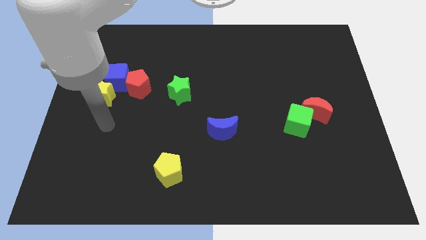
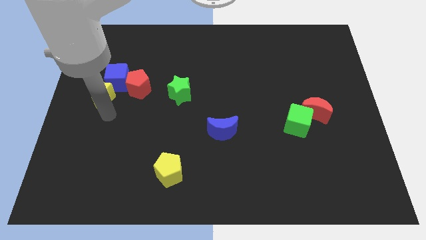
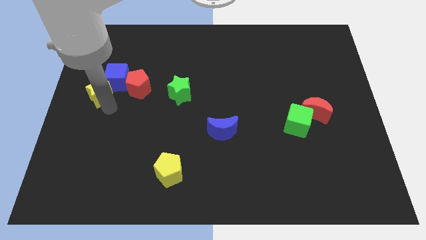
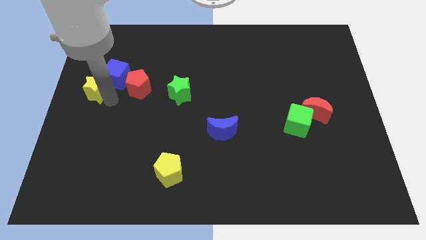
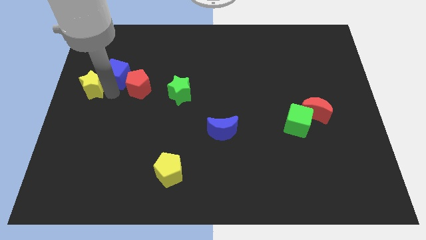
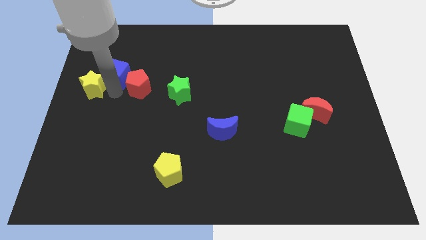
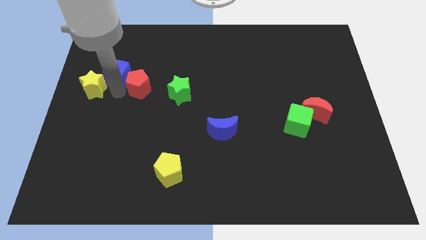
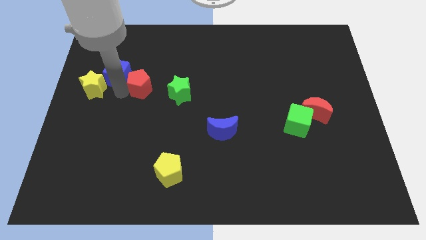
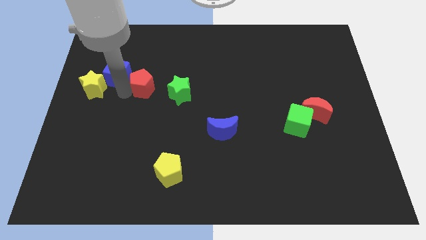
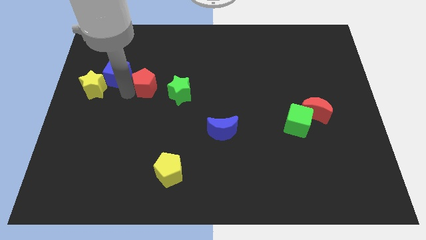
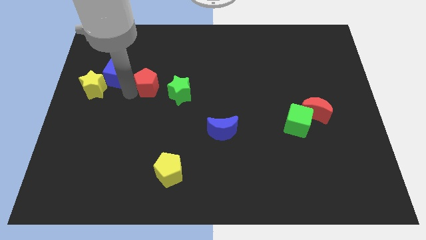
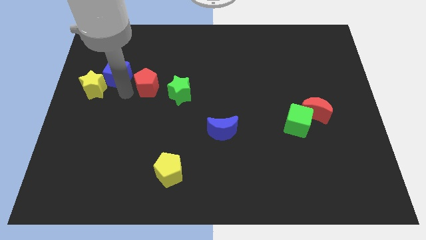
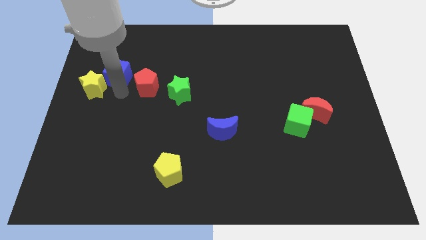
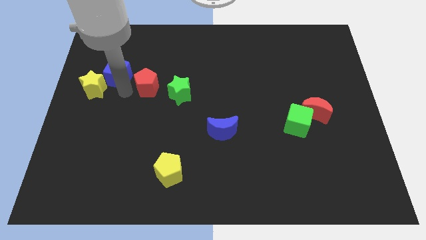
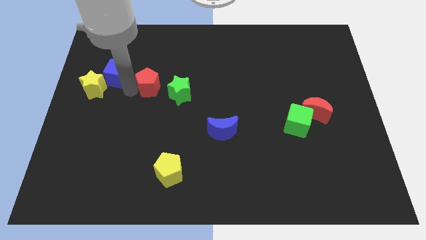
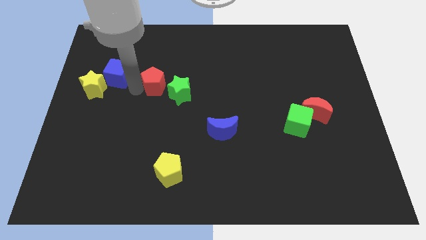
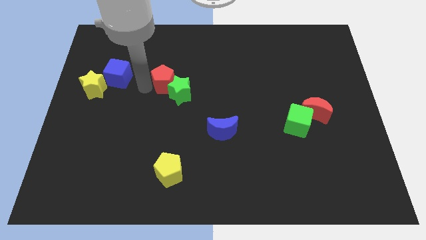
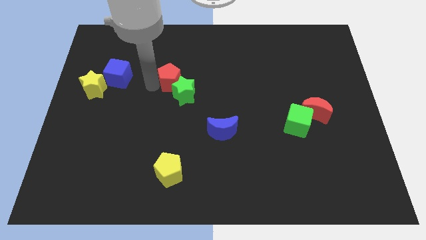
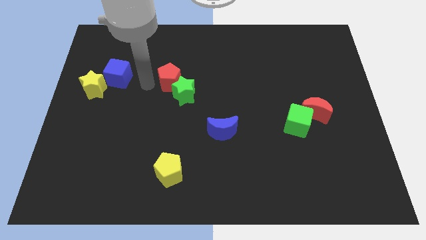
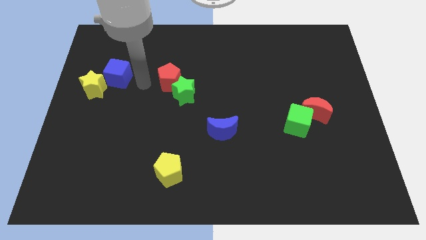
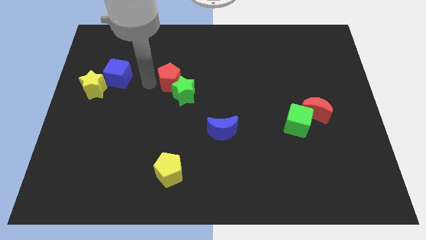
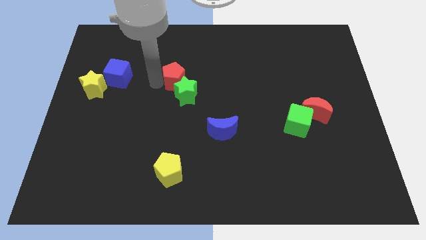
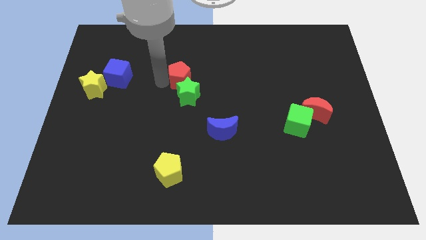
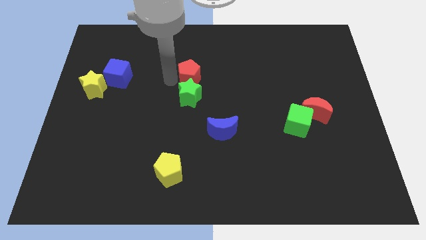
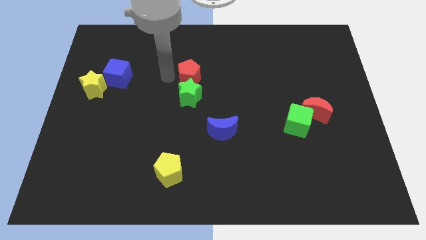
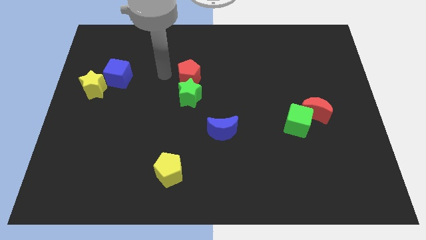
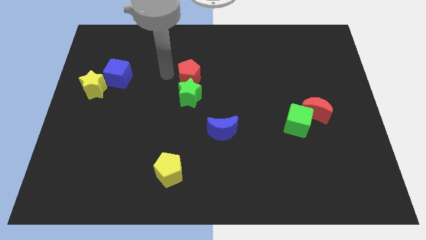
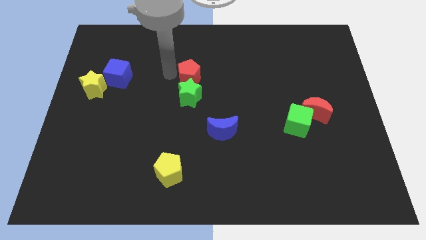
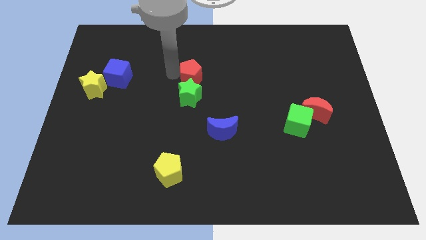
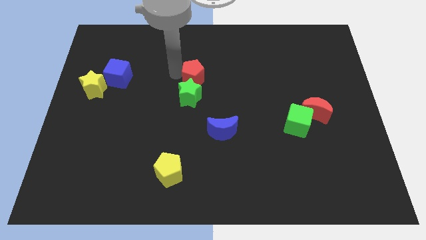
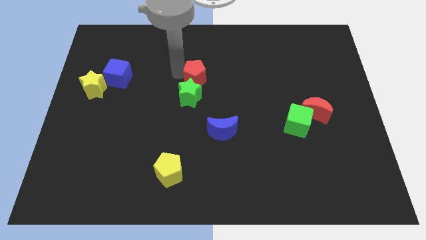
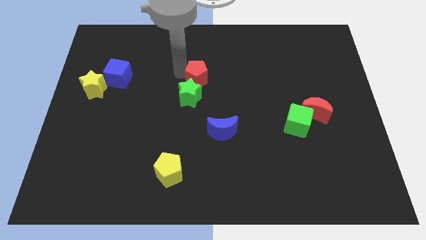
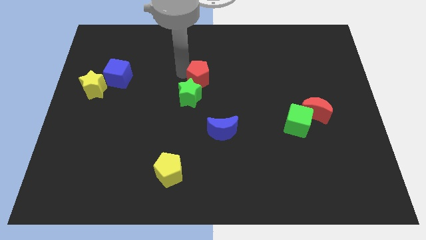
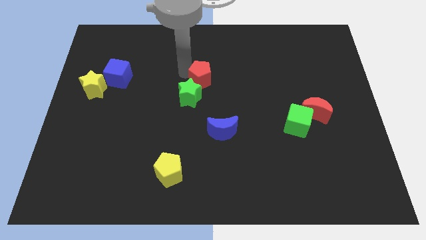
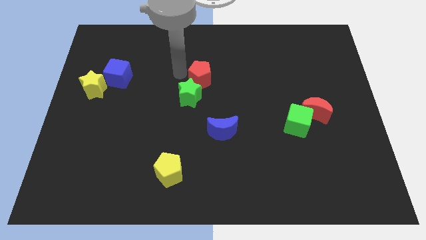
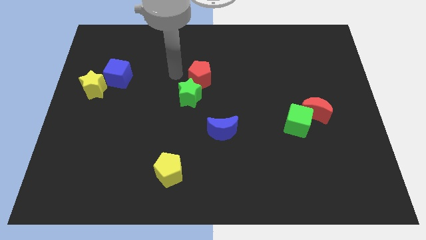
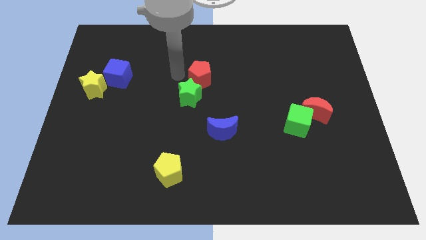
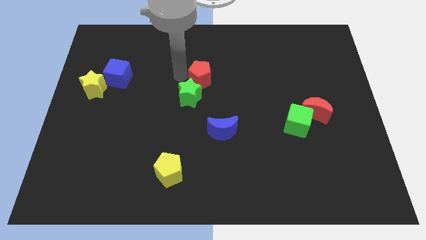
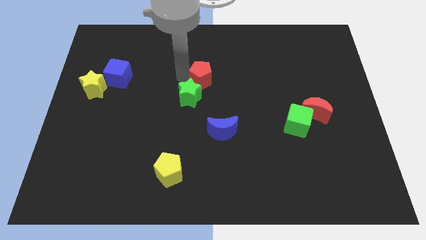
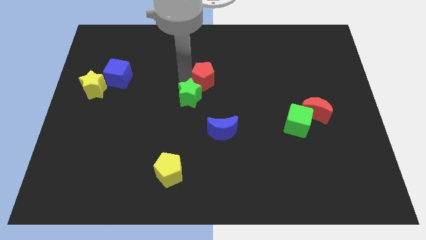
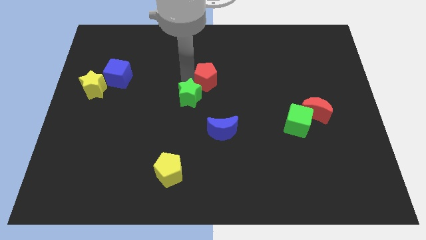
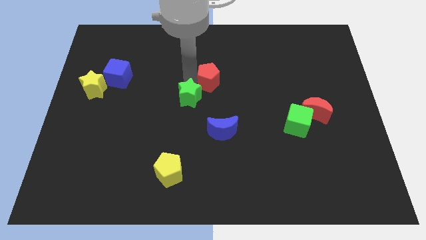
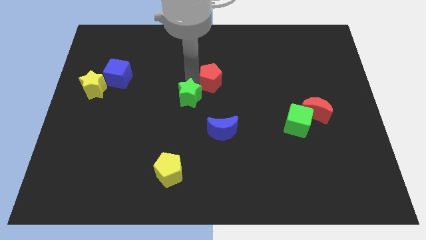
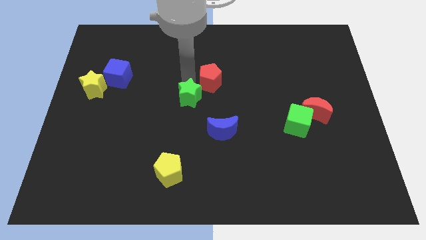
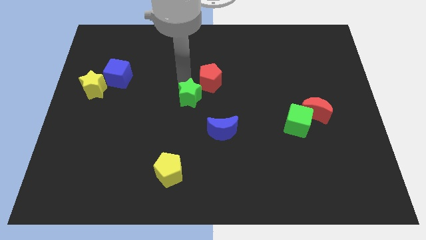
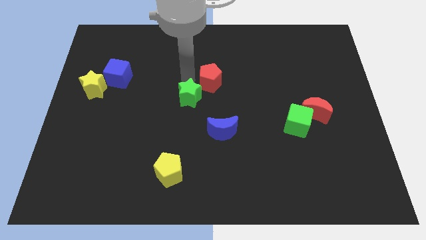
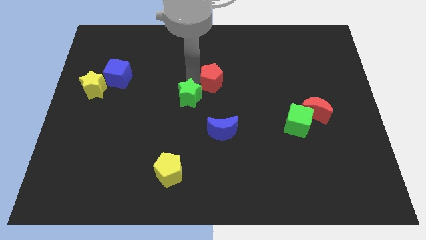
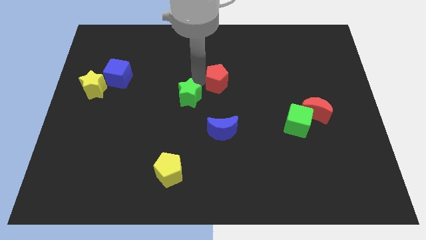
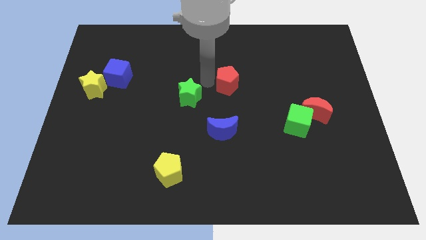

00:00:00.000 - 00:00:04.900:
move the red pentagon right

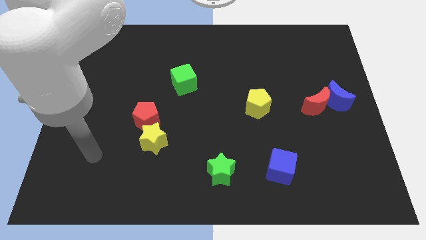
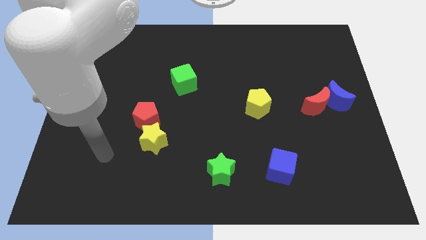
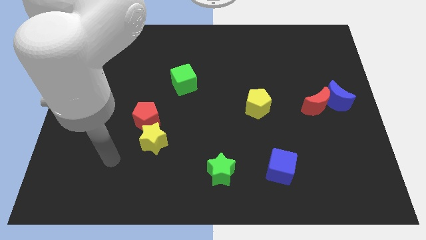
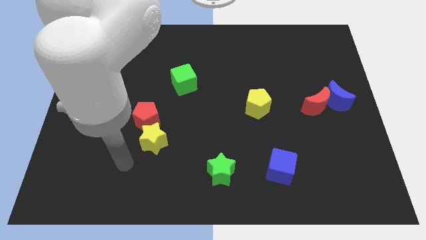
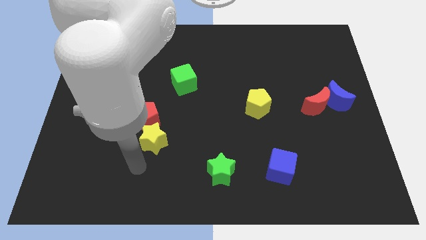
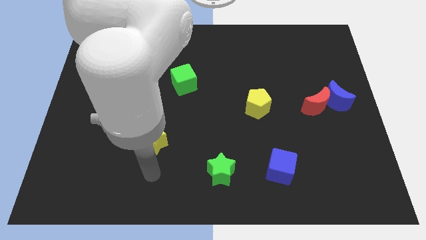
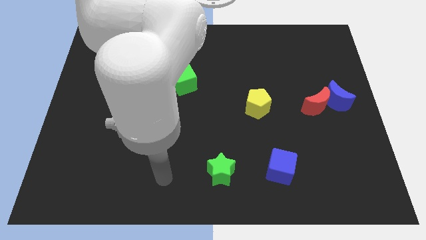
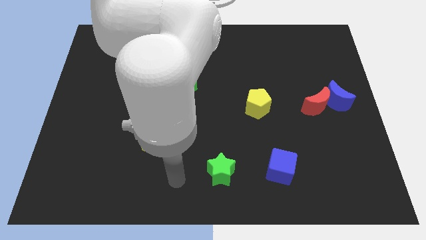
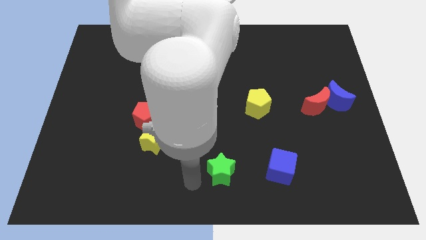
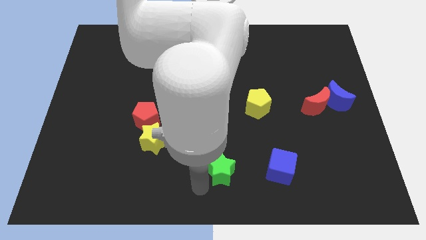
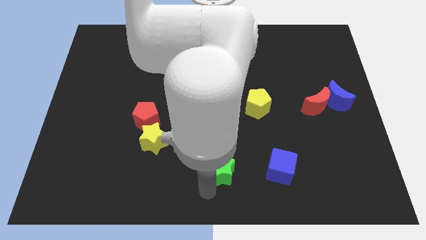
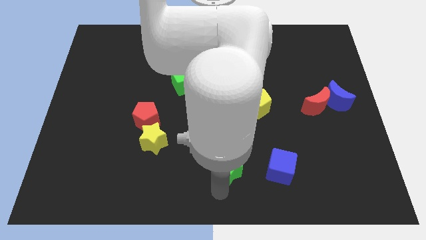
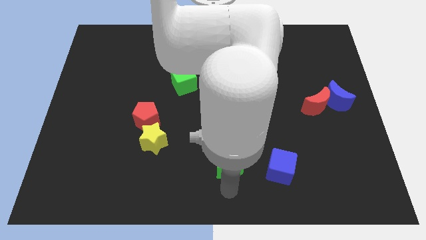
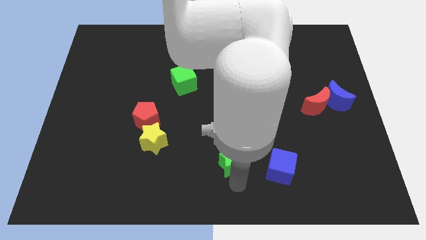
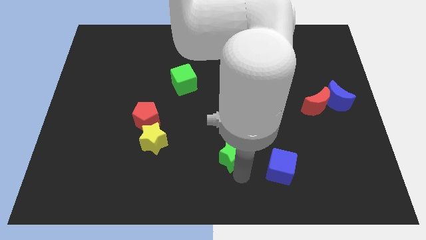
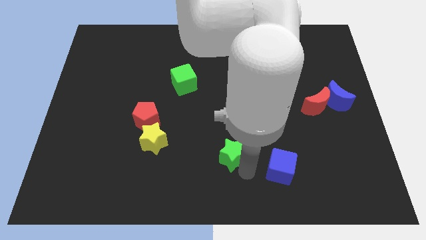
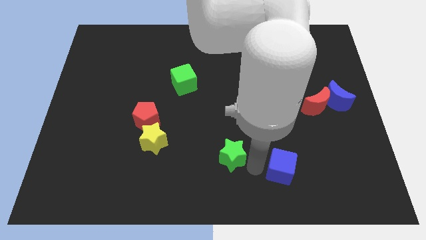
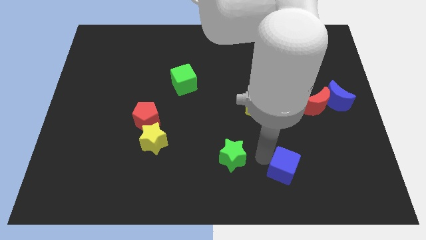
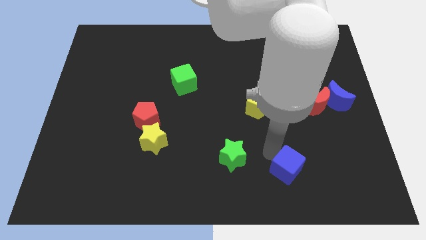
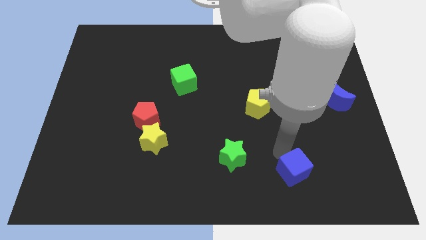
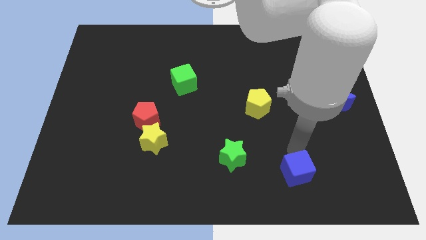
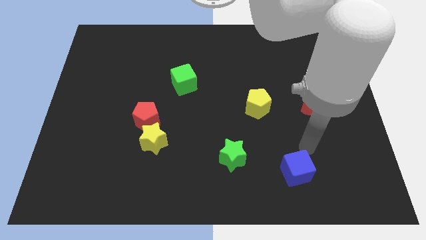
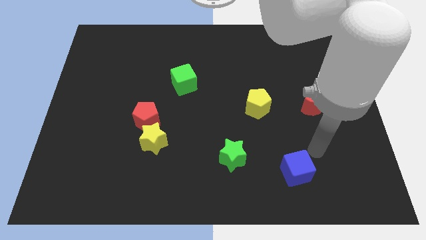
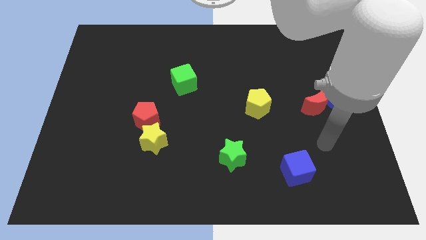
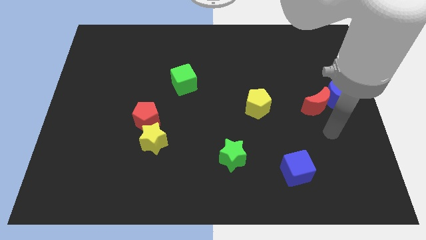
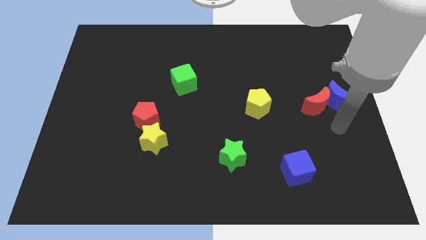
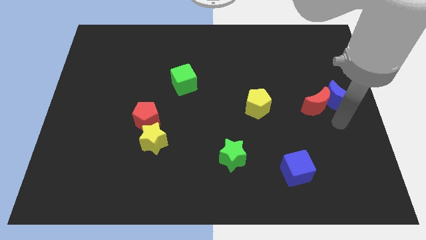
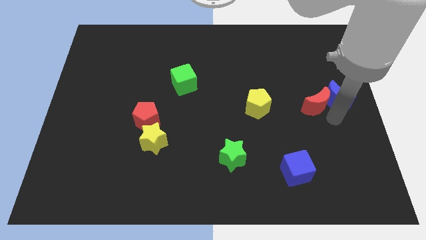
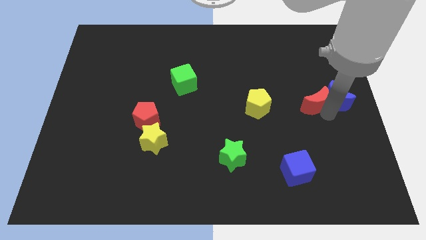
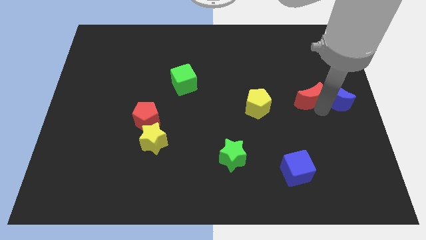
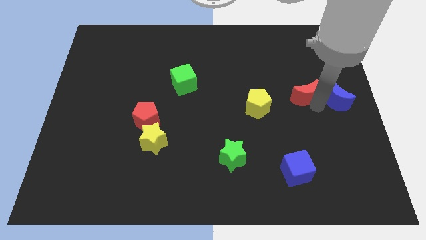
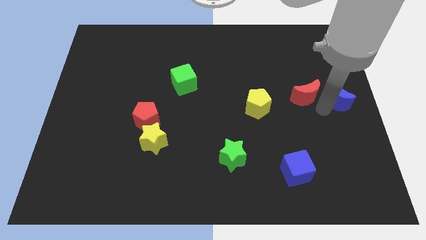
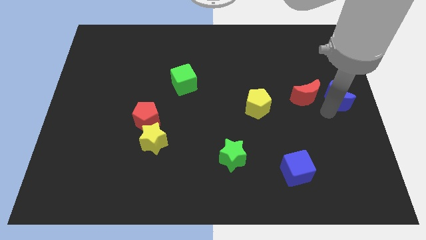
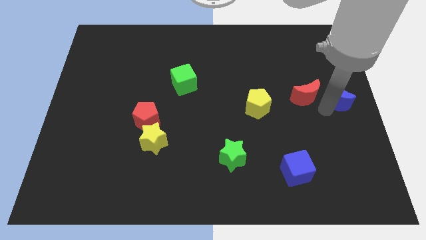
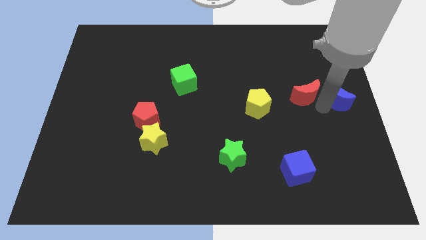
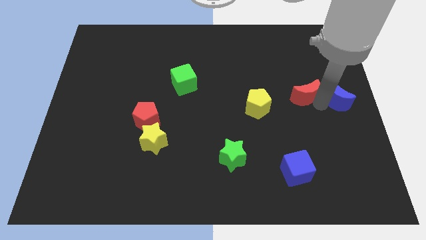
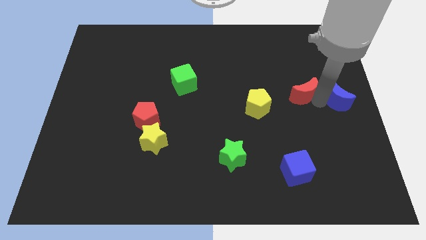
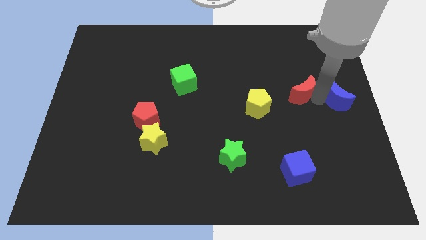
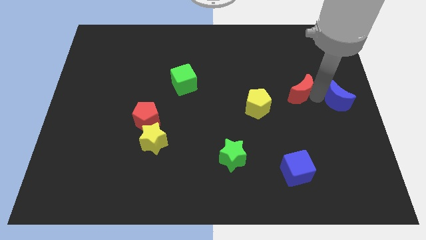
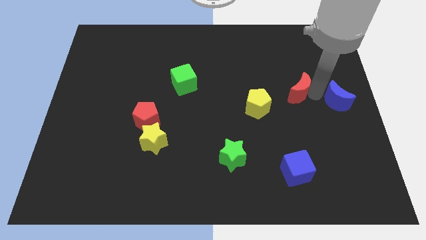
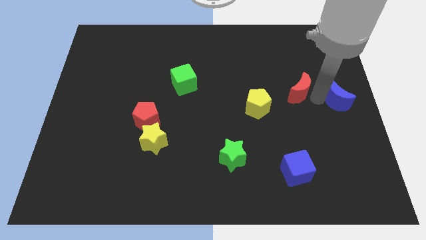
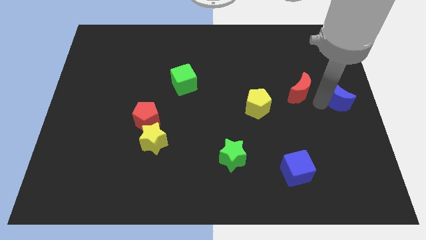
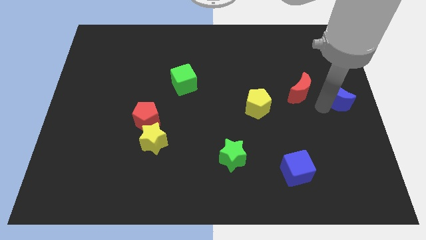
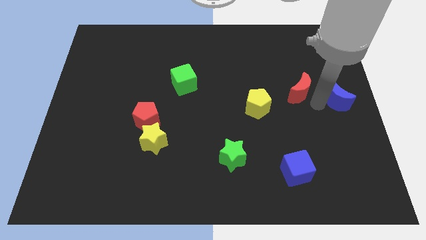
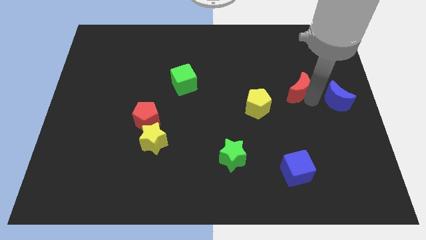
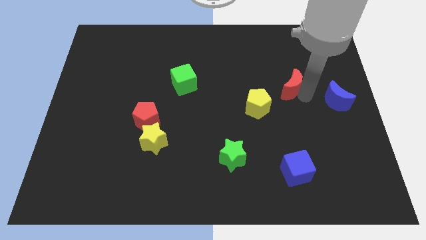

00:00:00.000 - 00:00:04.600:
push the red moon upwards and then to the left a little
